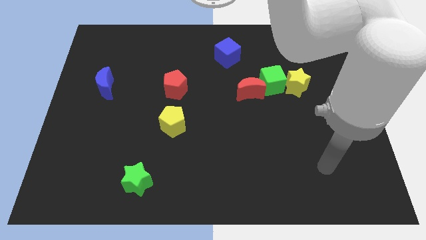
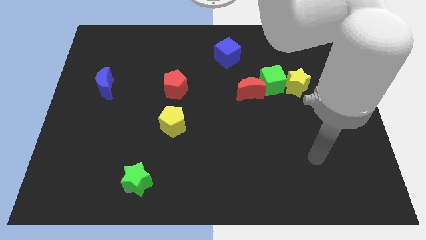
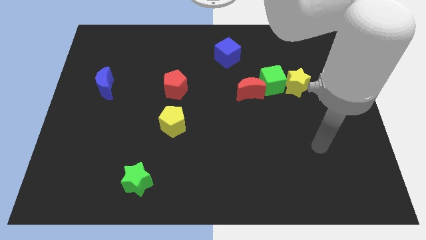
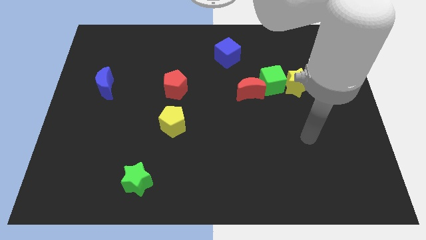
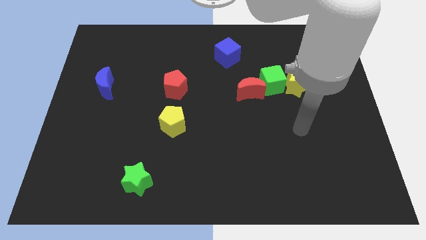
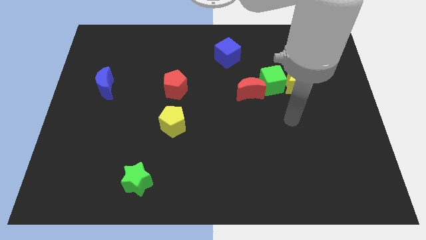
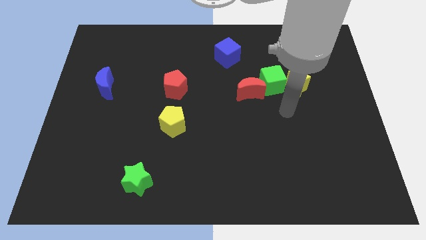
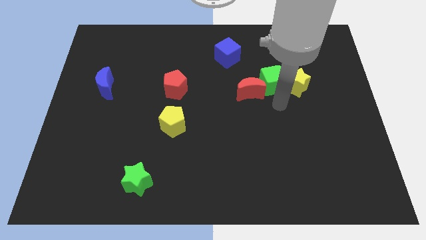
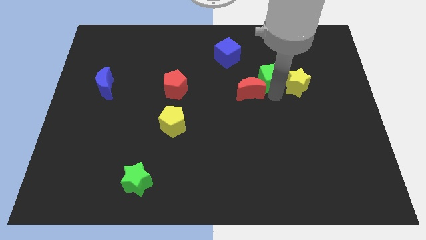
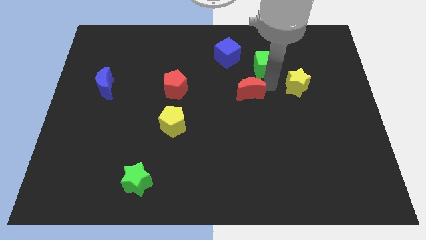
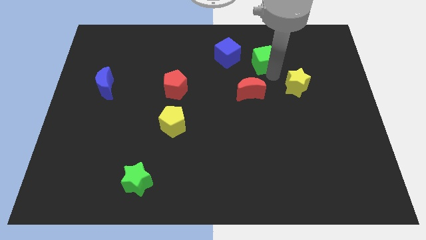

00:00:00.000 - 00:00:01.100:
pull the yellow star apart from the green cube

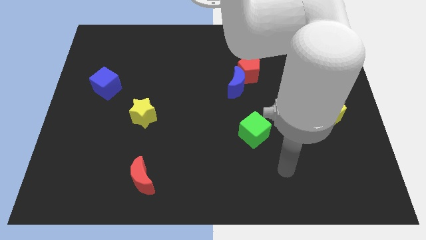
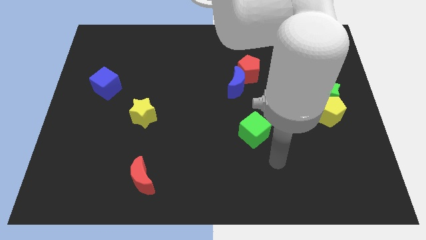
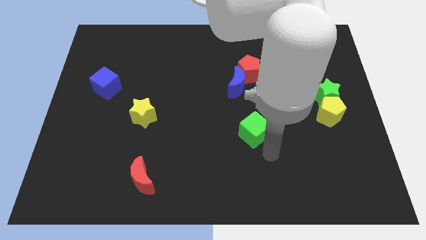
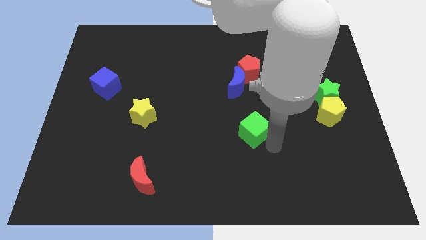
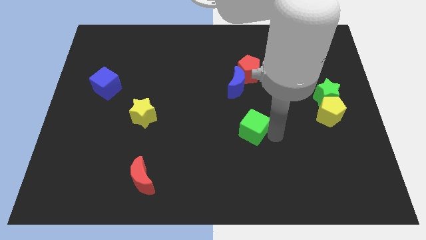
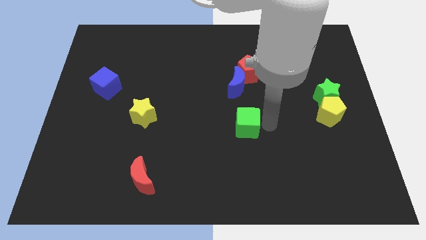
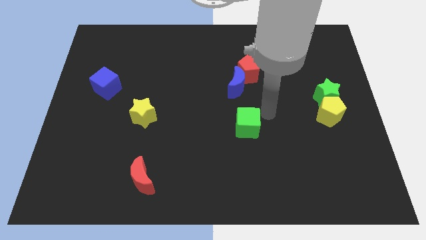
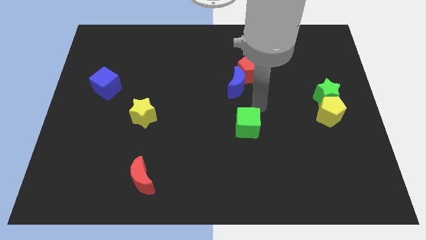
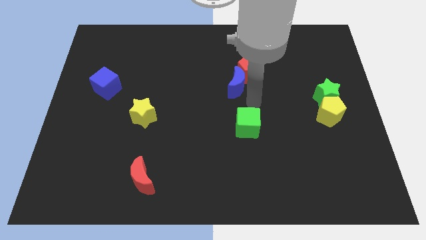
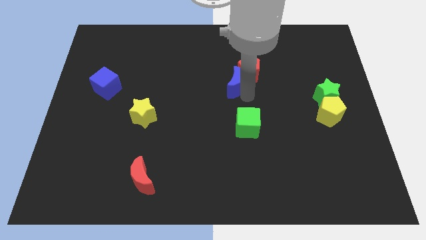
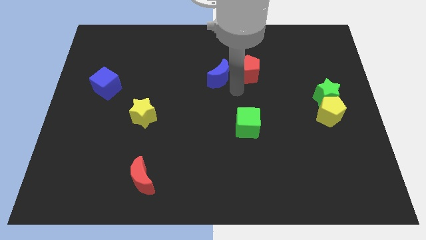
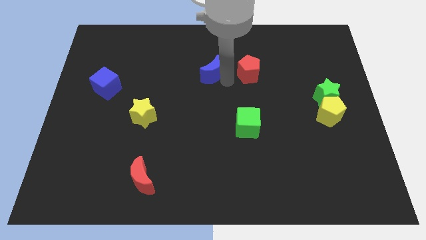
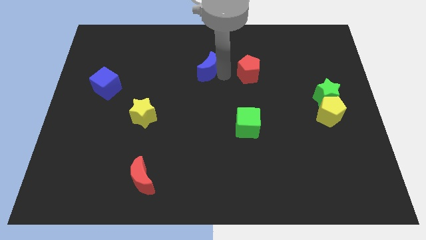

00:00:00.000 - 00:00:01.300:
separate the red pentagon from the blue moon

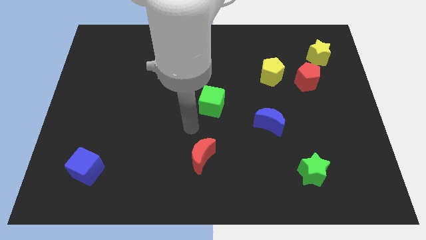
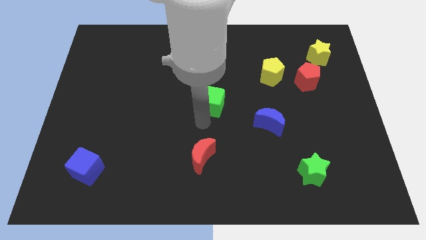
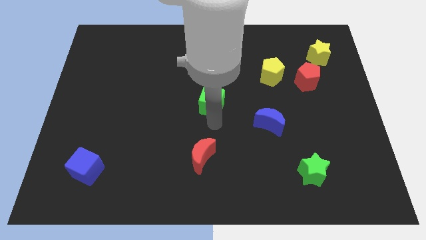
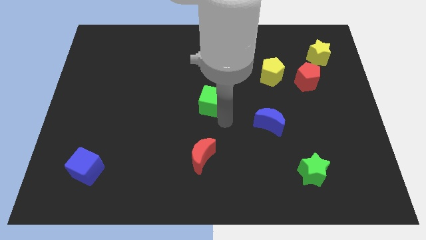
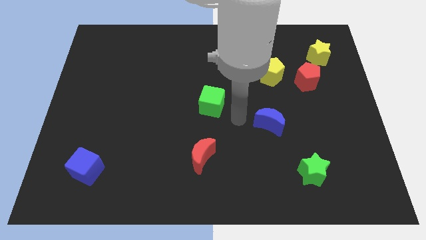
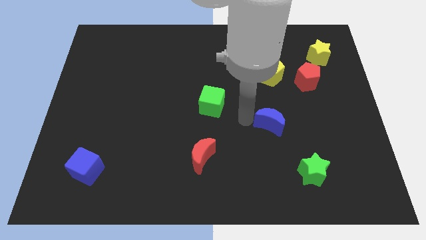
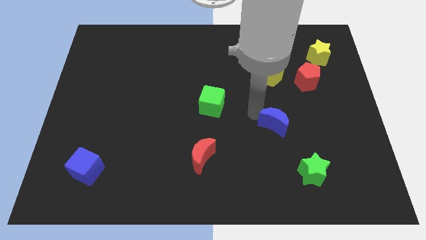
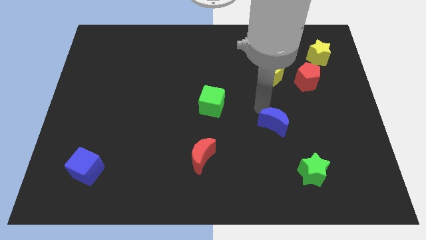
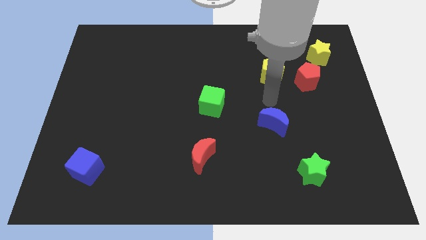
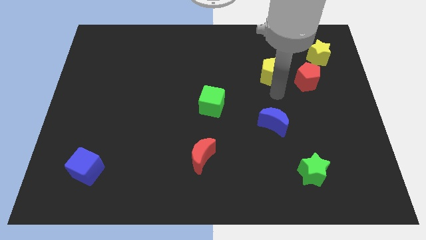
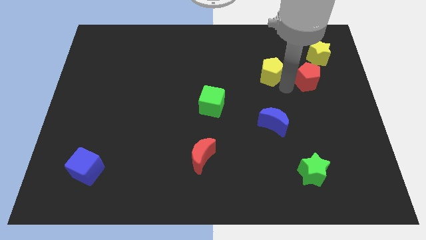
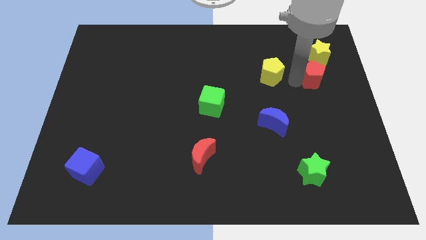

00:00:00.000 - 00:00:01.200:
move the yellow pentagon away from the red pentagon

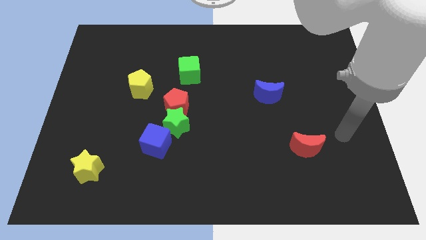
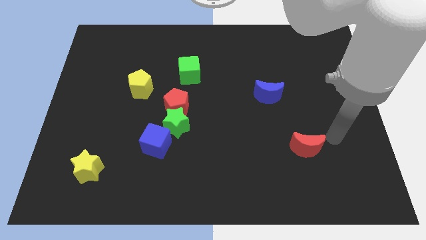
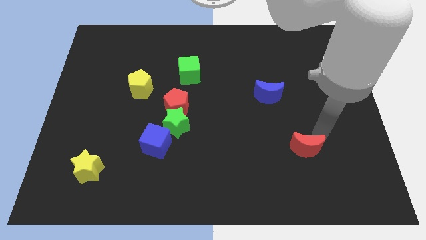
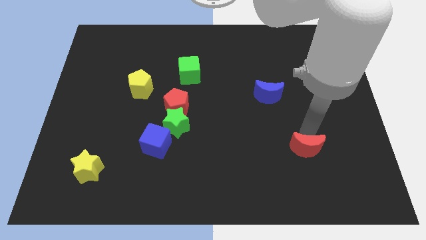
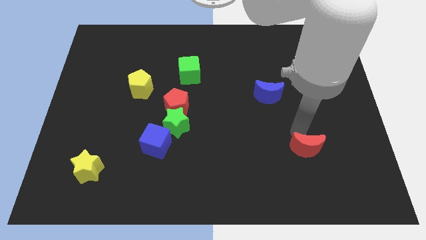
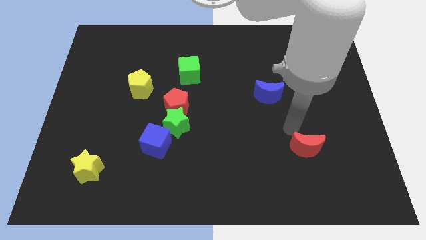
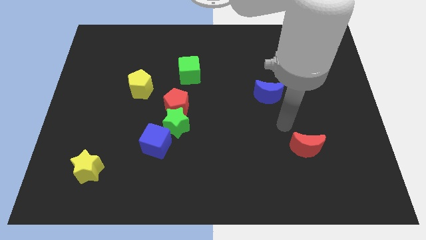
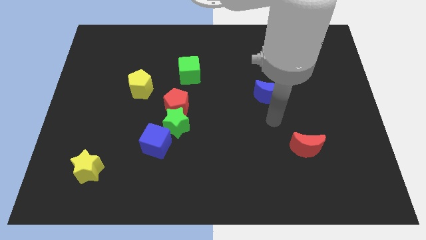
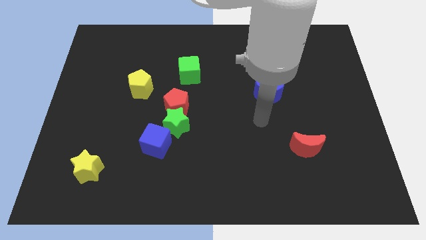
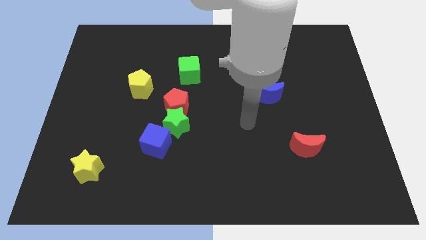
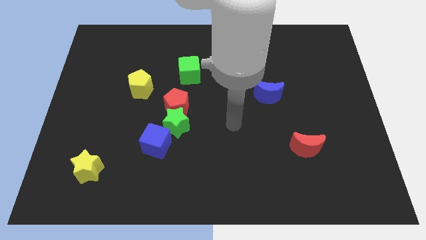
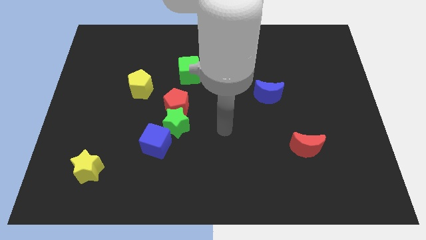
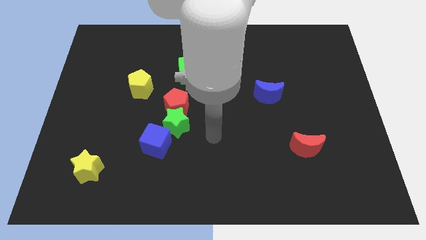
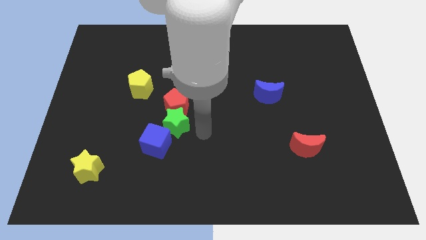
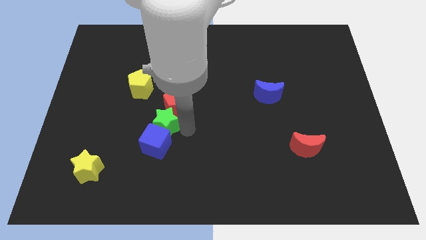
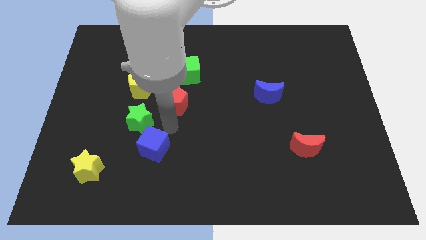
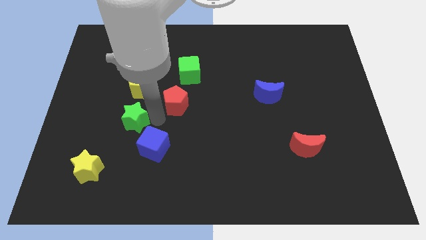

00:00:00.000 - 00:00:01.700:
pull the red pentagon apart from the green star

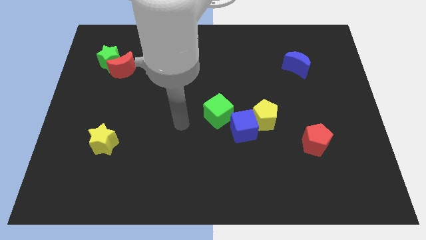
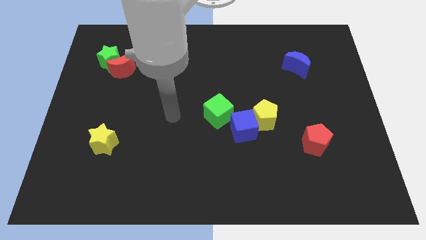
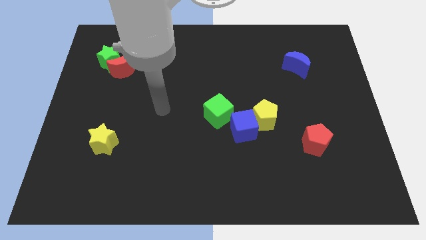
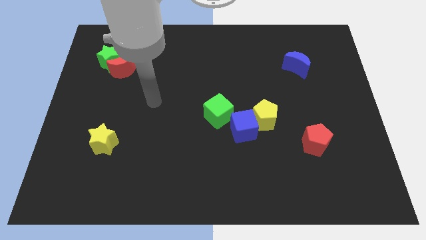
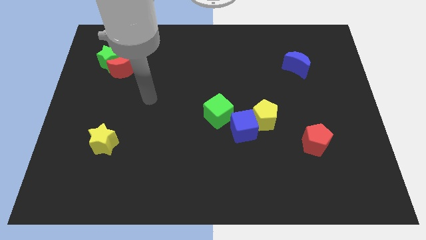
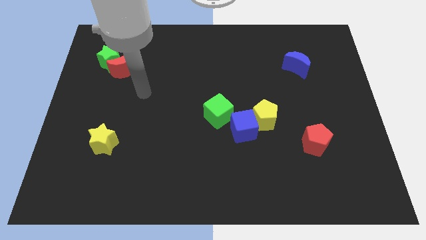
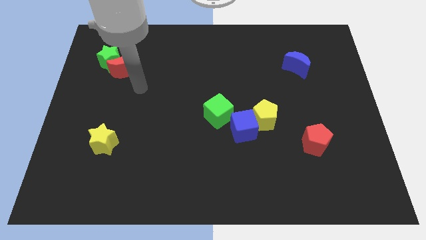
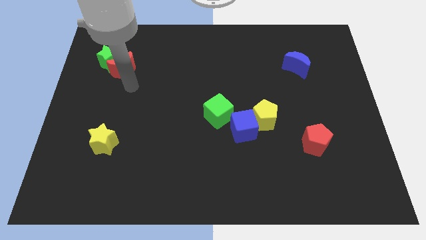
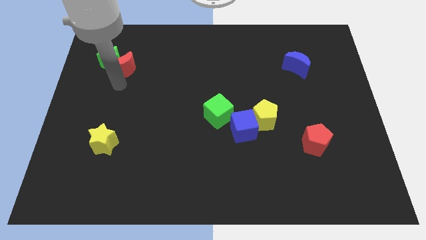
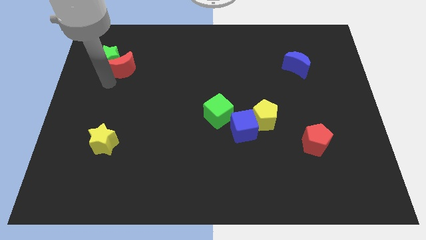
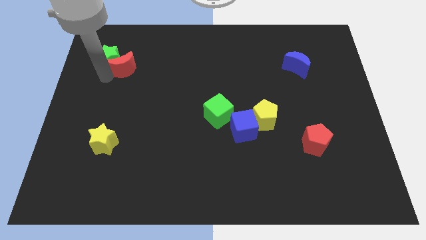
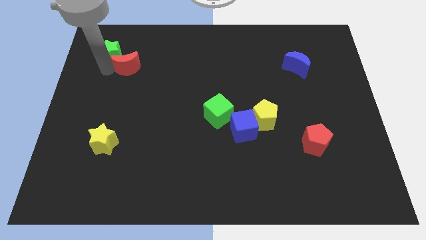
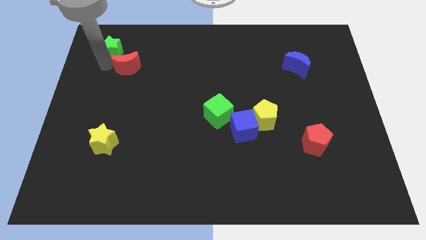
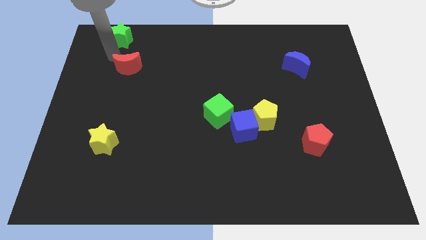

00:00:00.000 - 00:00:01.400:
separate the red moon from the green star

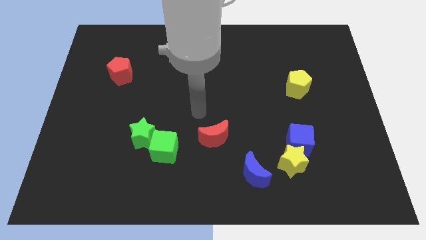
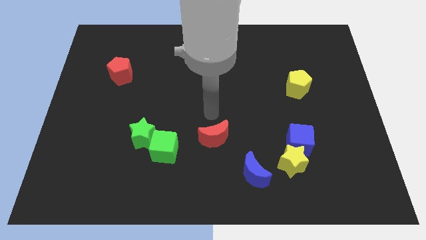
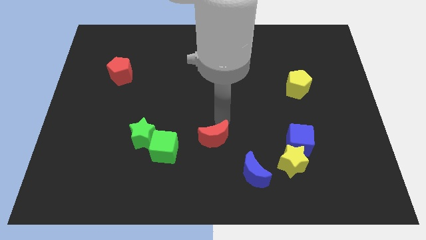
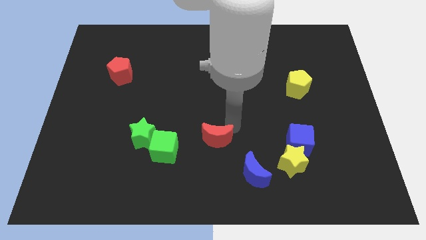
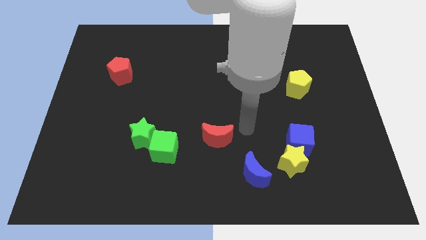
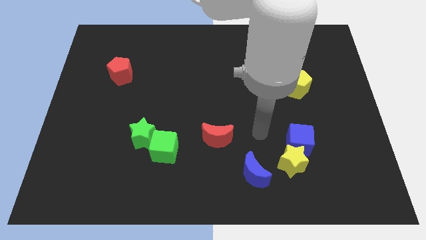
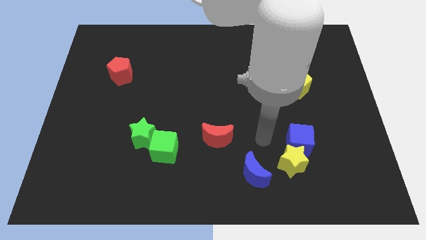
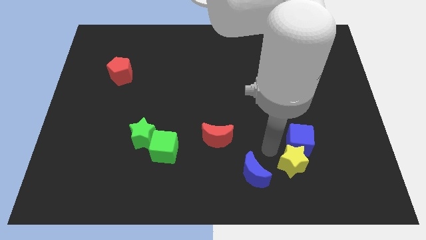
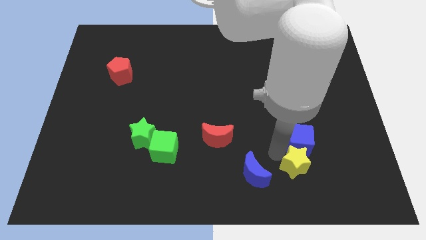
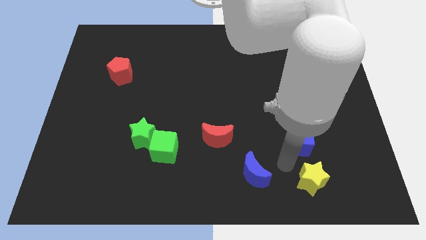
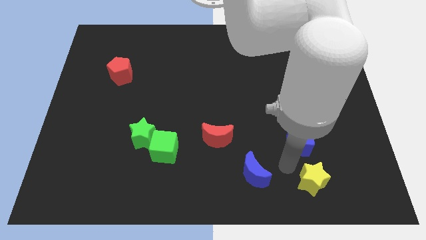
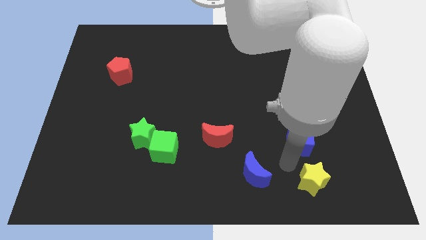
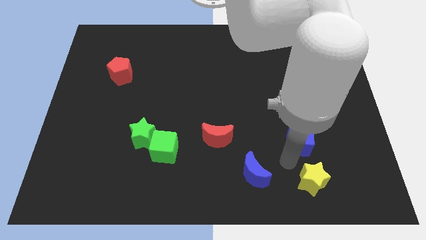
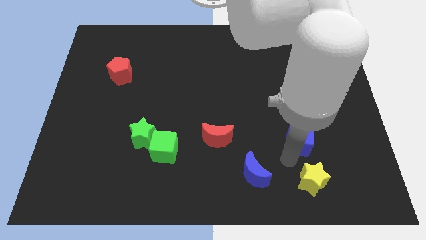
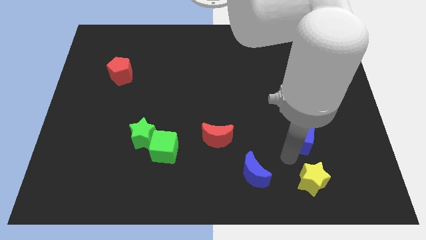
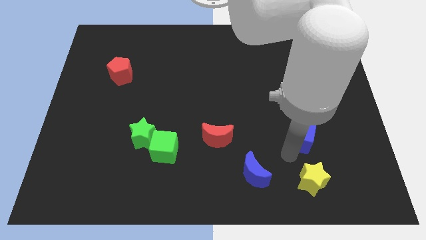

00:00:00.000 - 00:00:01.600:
pull the blue cube apart from the yellow star

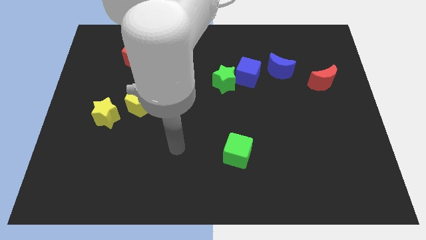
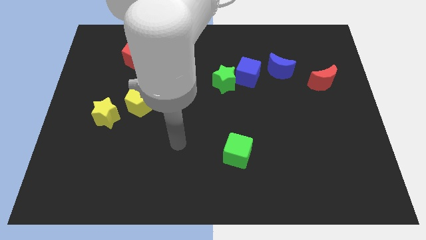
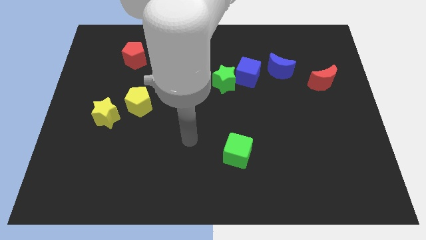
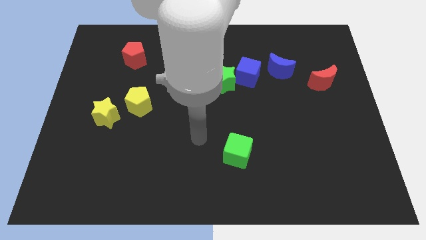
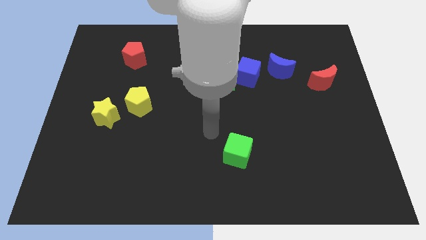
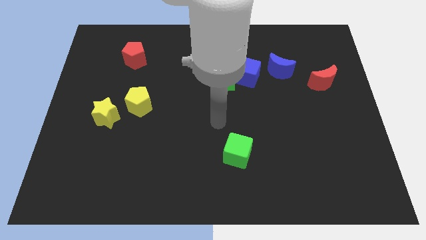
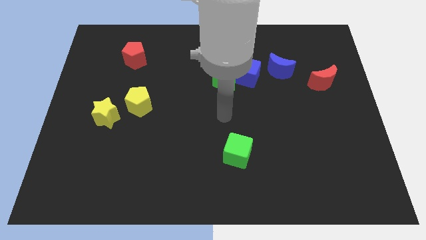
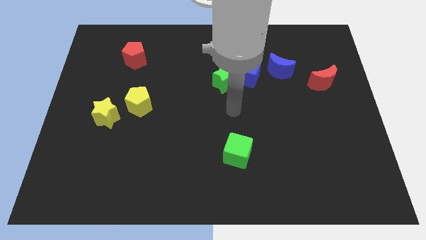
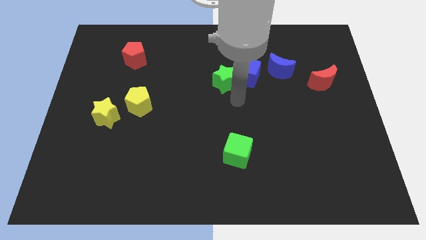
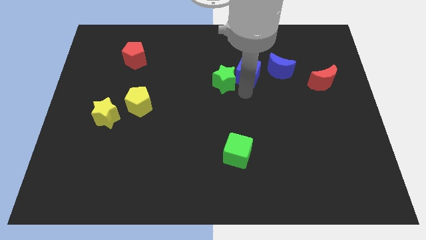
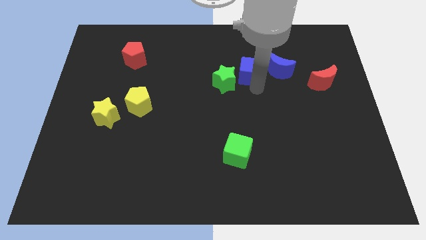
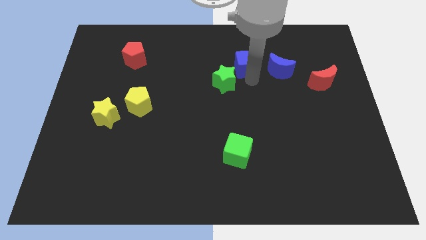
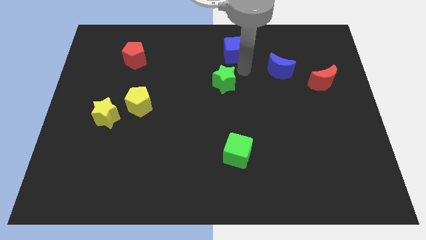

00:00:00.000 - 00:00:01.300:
separate the green star from the blue cube
